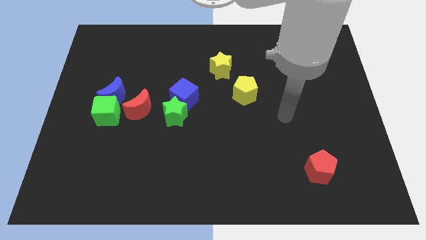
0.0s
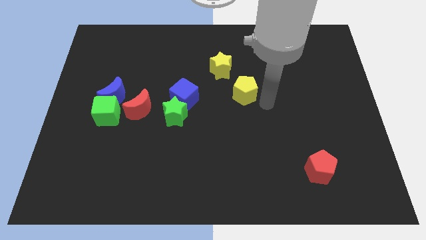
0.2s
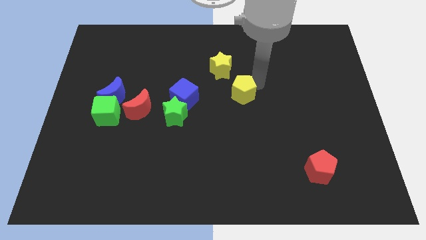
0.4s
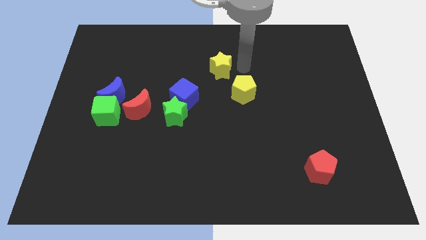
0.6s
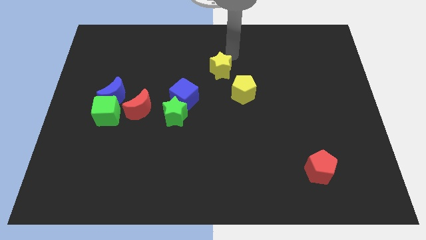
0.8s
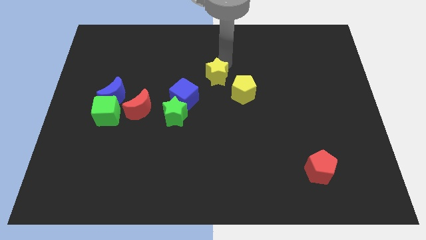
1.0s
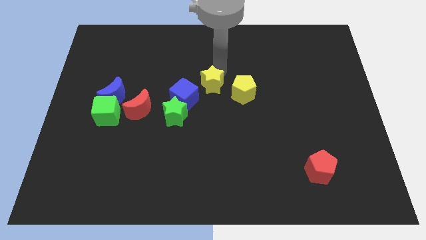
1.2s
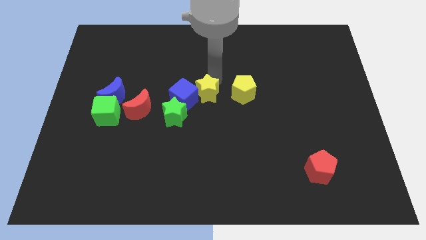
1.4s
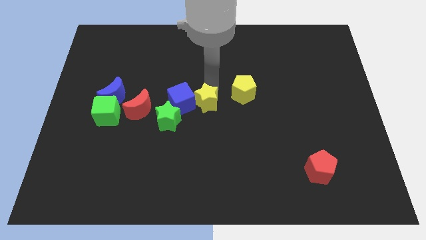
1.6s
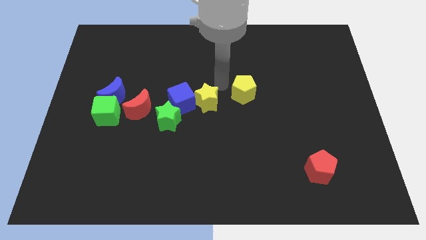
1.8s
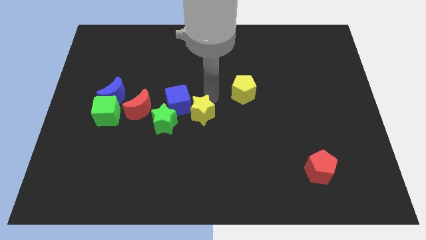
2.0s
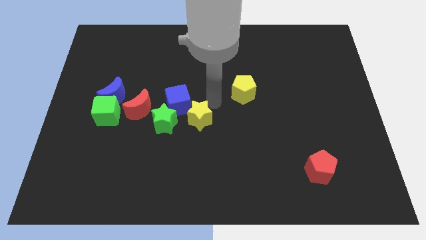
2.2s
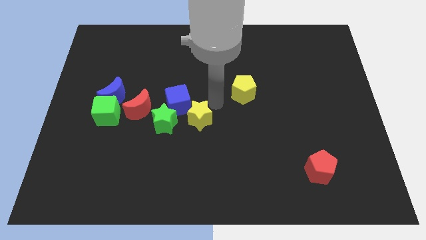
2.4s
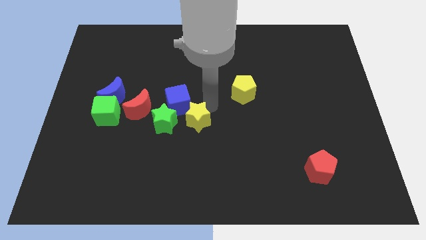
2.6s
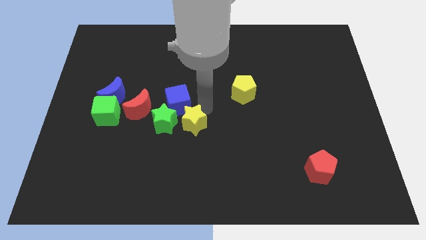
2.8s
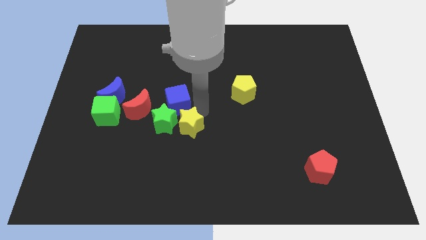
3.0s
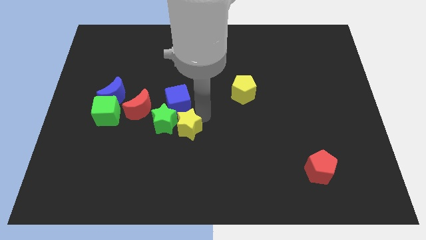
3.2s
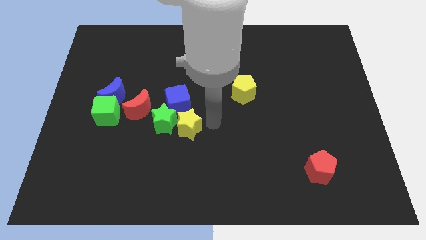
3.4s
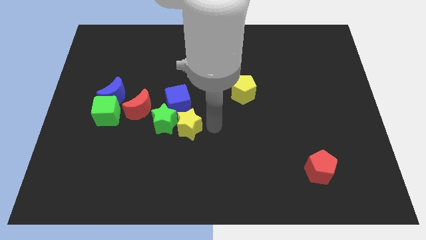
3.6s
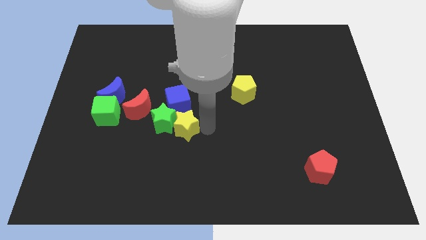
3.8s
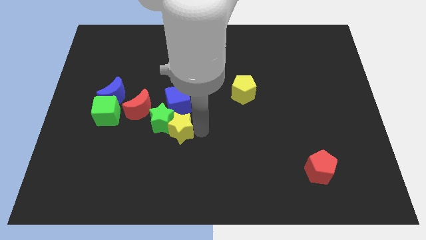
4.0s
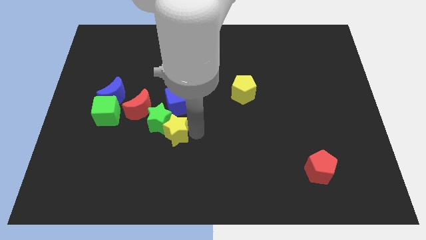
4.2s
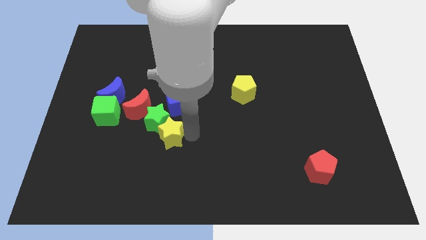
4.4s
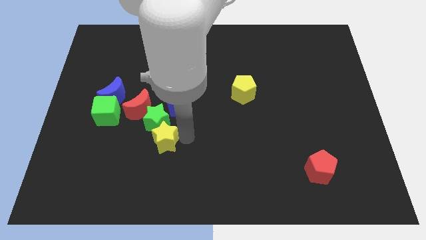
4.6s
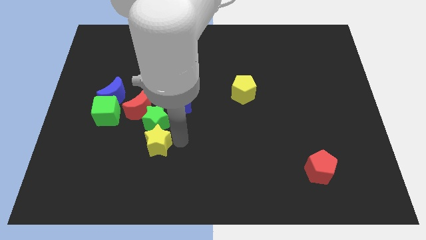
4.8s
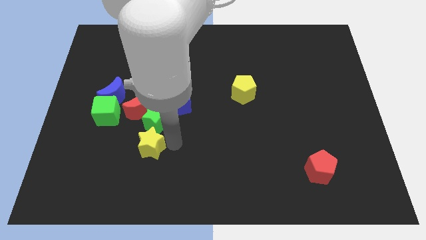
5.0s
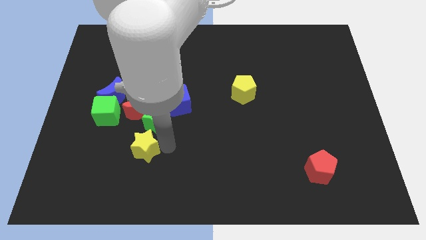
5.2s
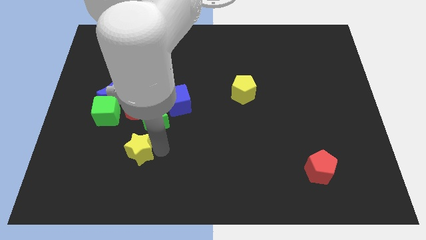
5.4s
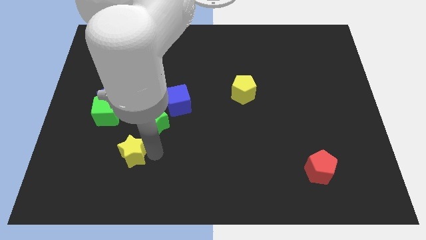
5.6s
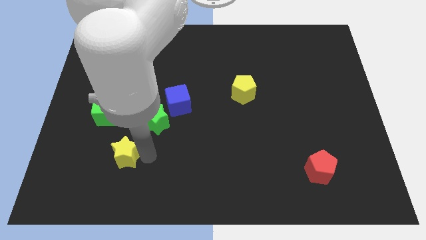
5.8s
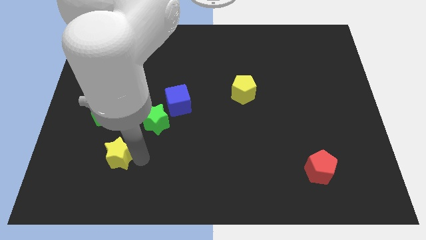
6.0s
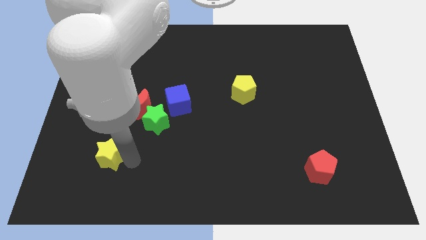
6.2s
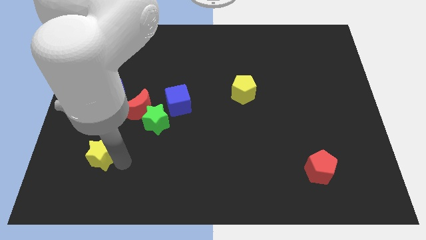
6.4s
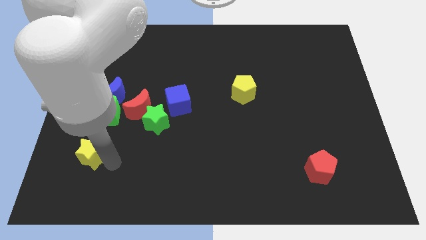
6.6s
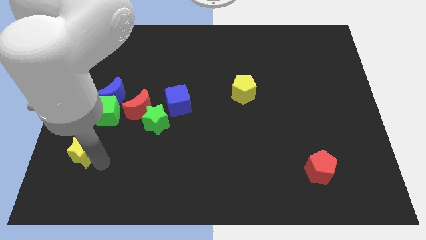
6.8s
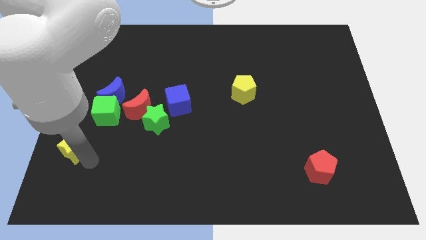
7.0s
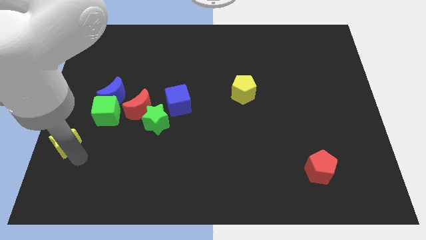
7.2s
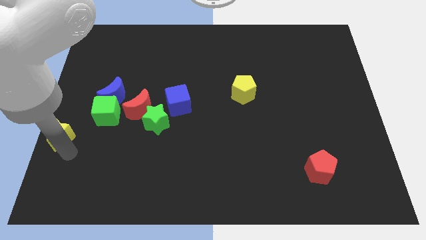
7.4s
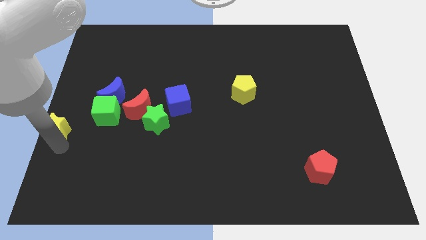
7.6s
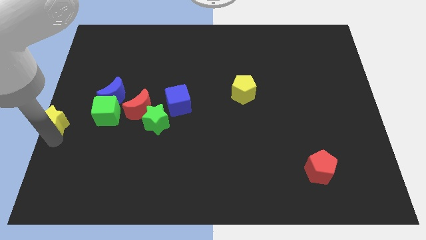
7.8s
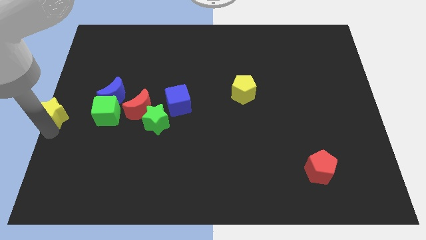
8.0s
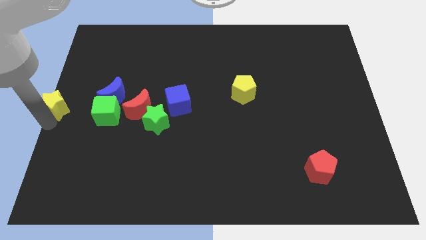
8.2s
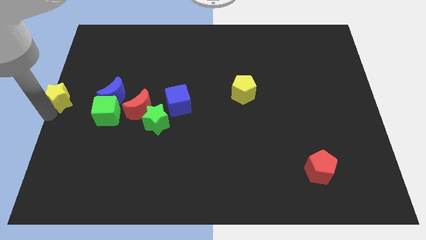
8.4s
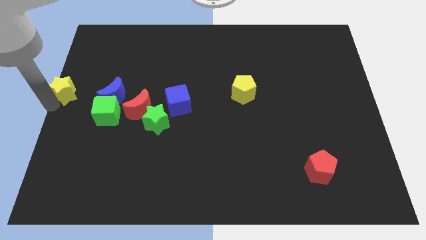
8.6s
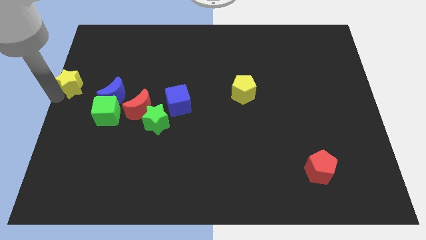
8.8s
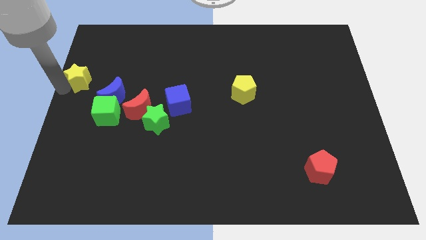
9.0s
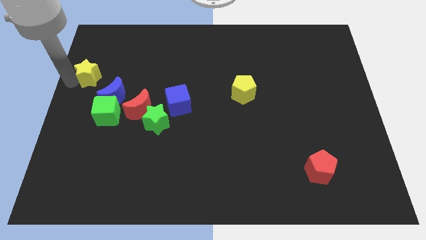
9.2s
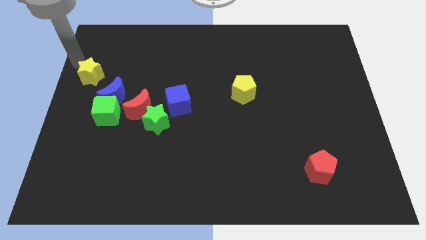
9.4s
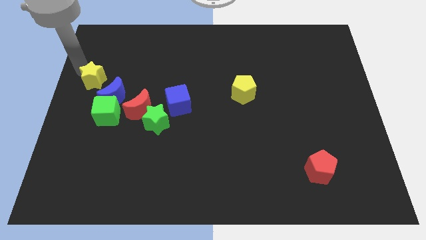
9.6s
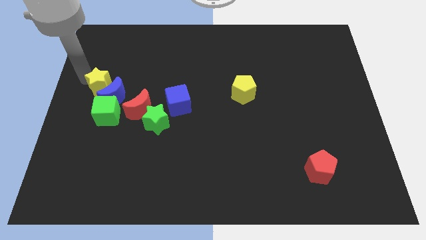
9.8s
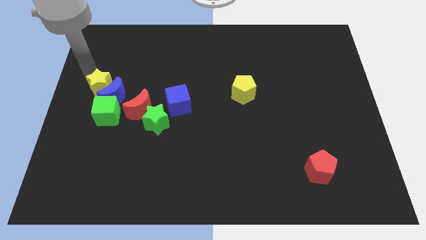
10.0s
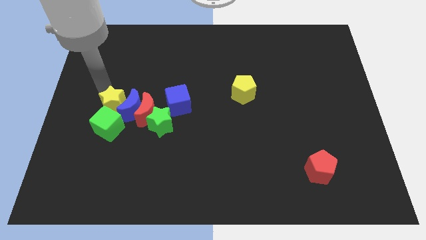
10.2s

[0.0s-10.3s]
move the yellow star close to the green cube

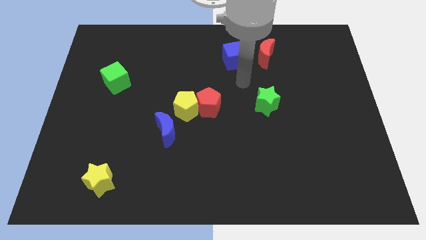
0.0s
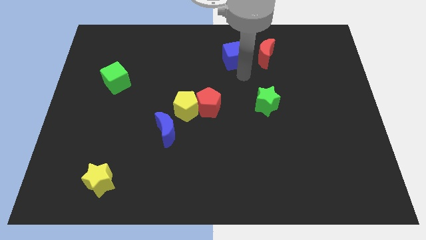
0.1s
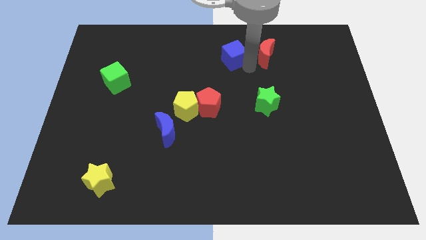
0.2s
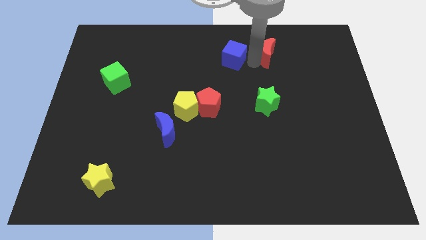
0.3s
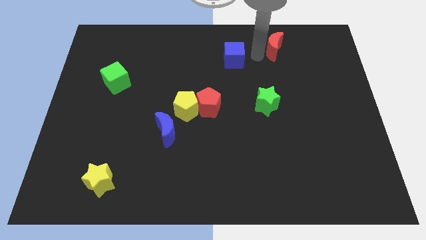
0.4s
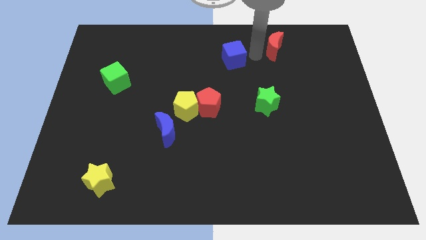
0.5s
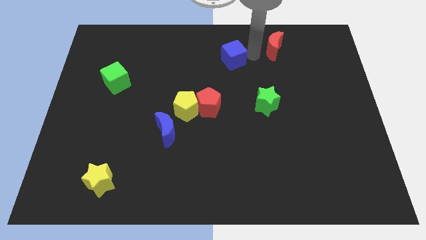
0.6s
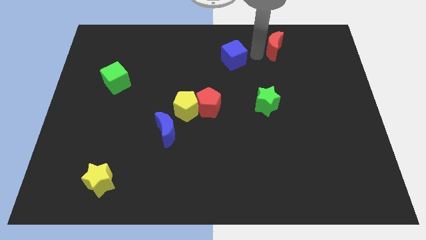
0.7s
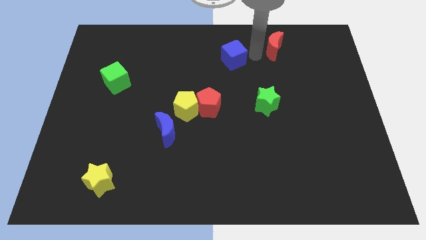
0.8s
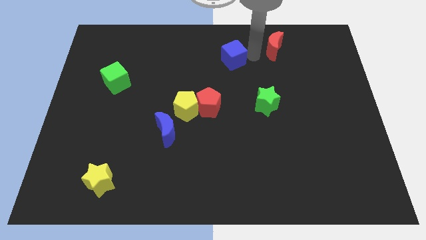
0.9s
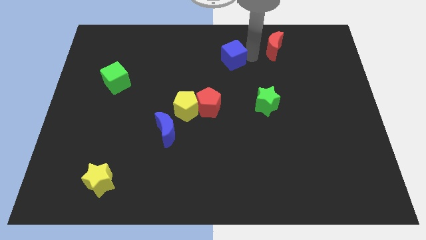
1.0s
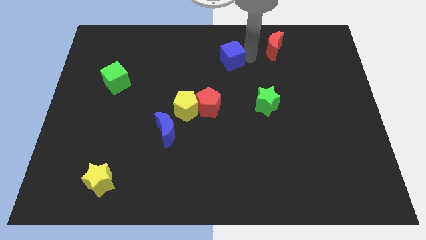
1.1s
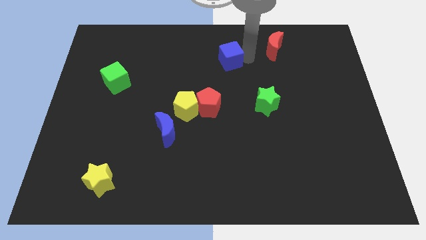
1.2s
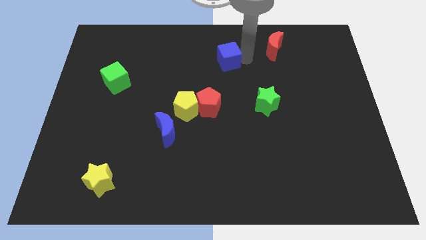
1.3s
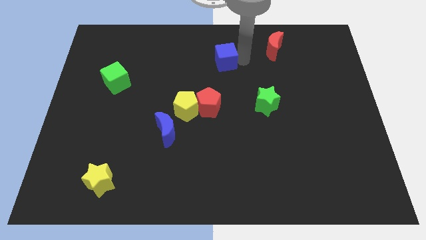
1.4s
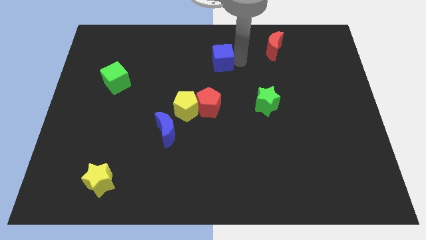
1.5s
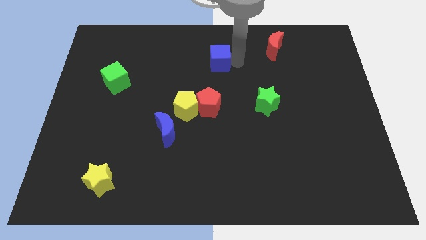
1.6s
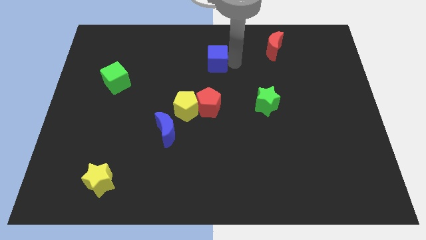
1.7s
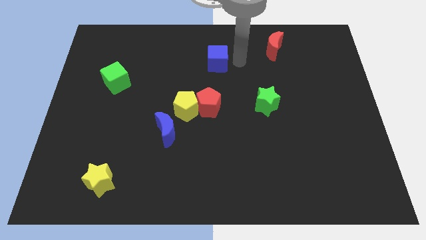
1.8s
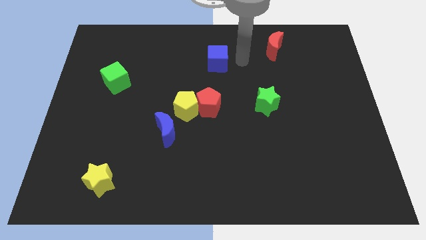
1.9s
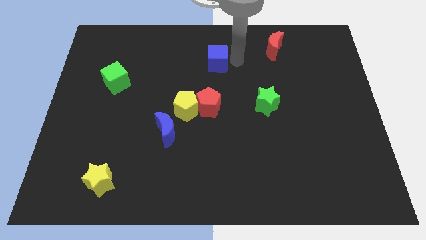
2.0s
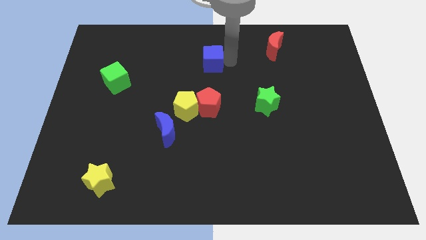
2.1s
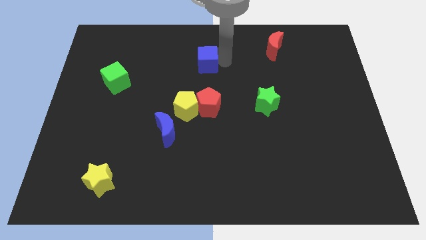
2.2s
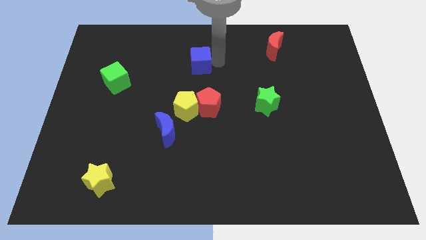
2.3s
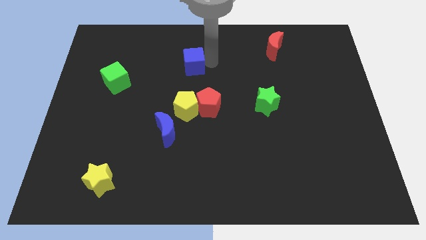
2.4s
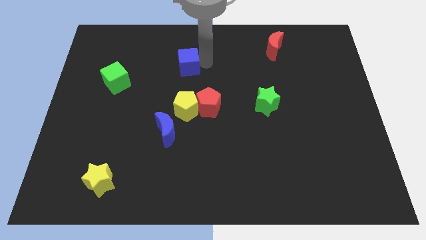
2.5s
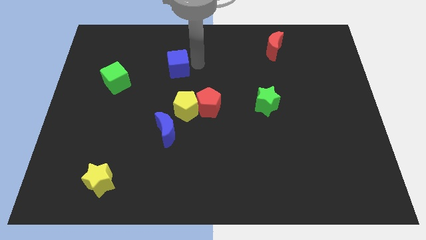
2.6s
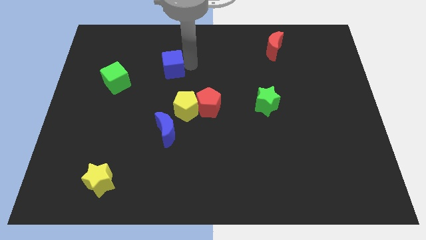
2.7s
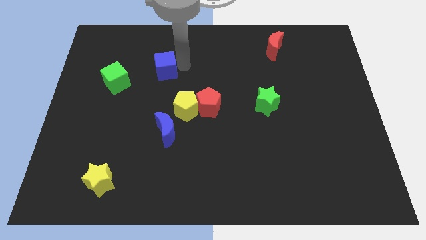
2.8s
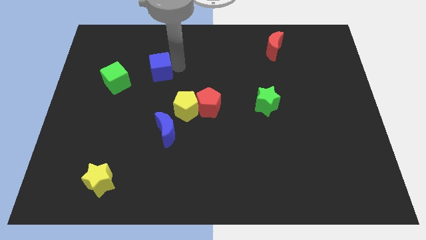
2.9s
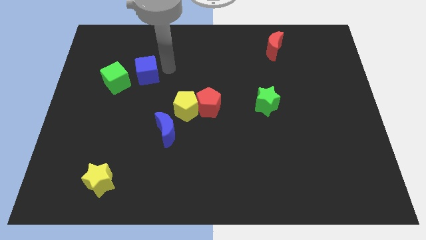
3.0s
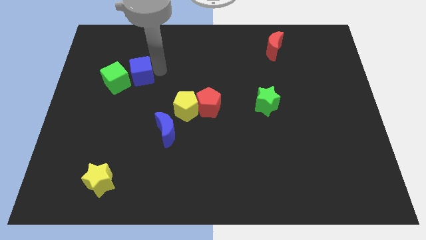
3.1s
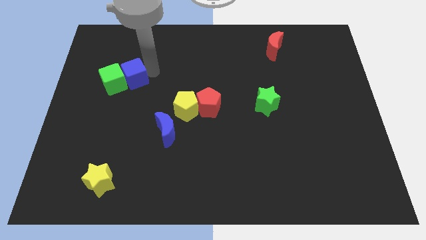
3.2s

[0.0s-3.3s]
push the blue cube next to the green cube
